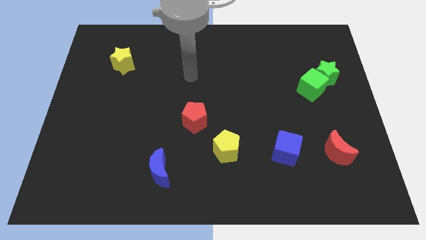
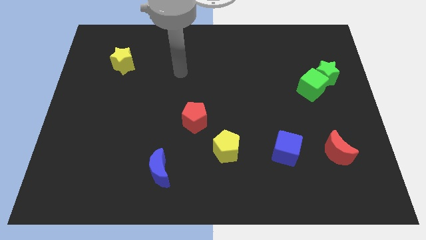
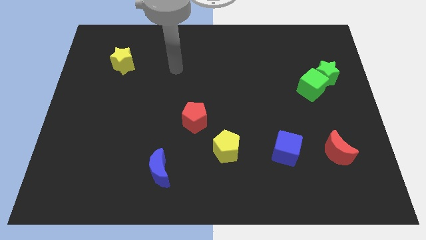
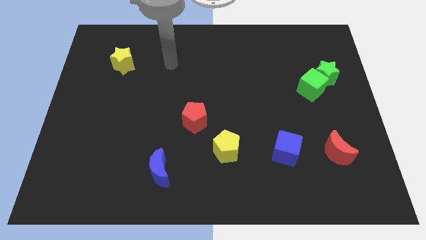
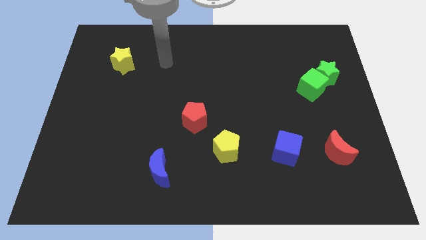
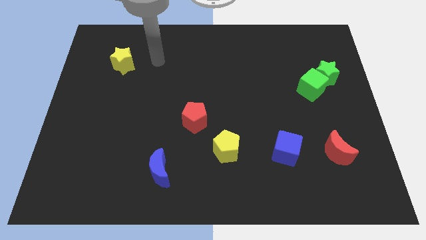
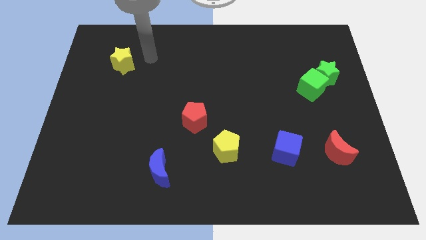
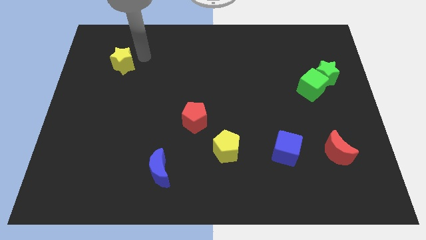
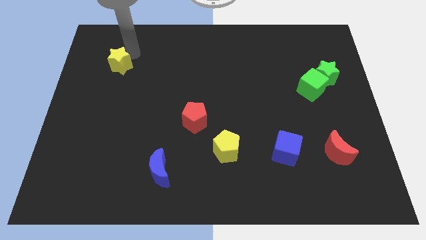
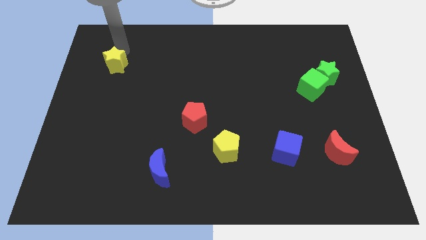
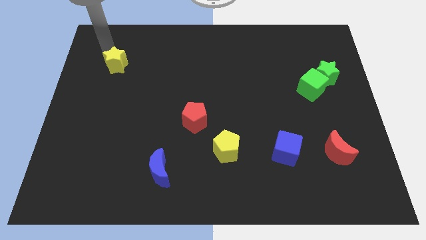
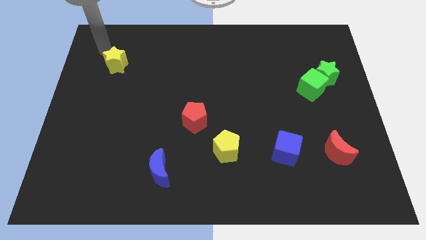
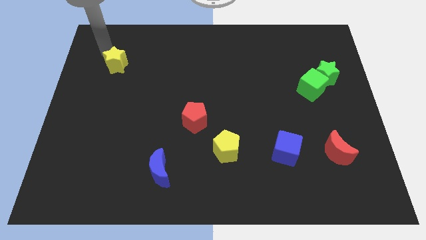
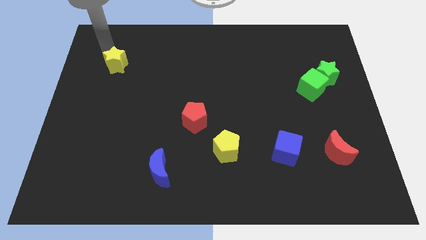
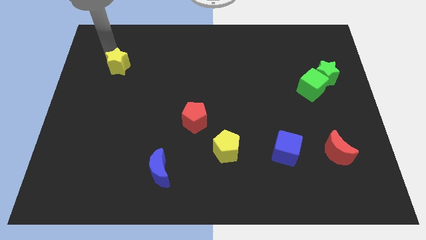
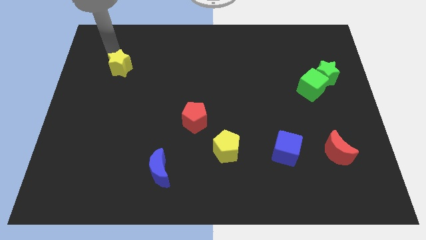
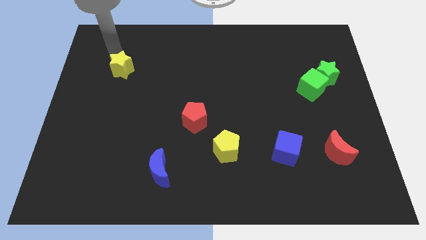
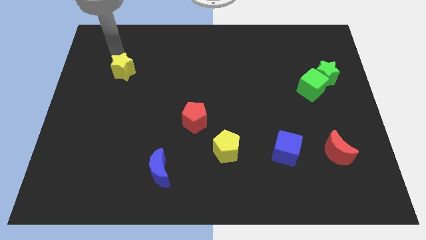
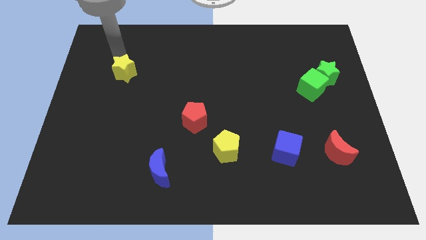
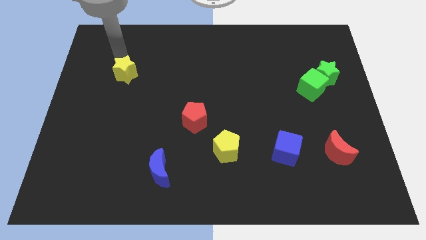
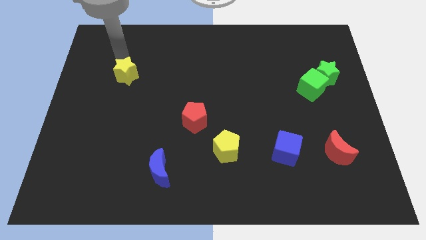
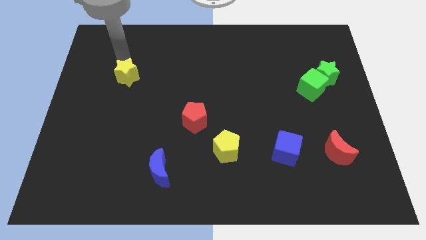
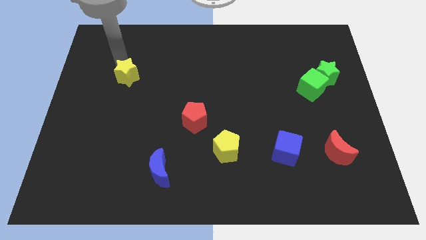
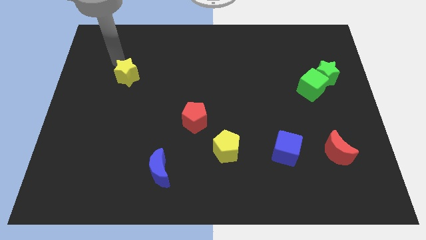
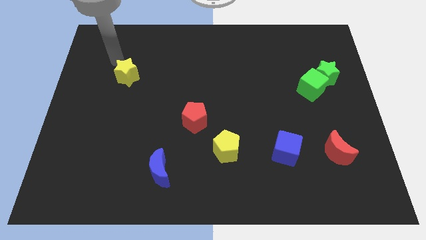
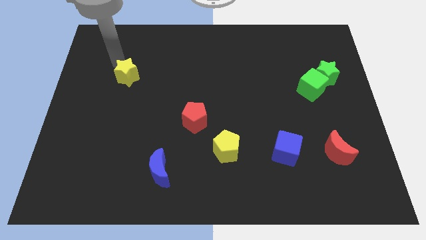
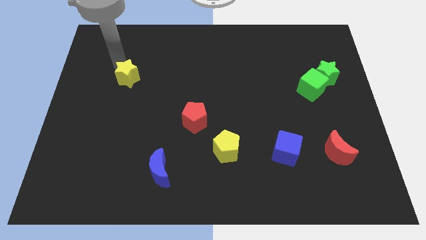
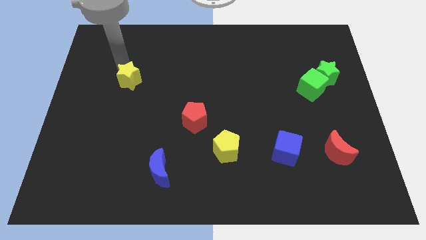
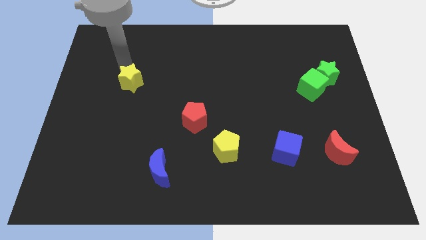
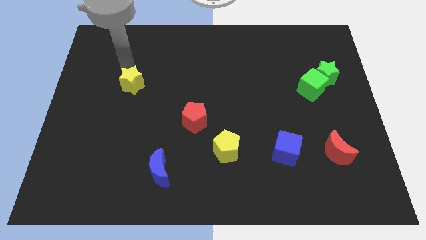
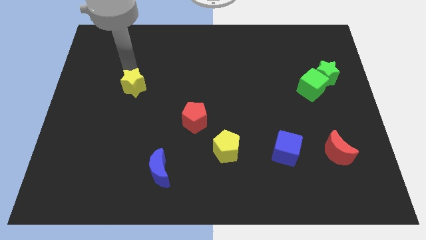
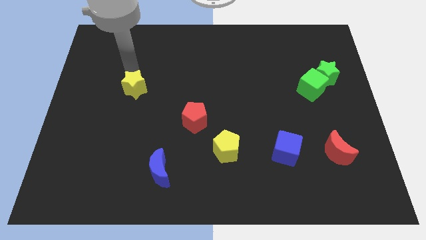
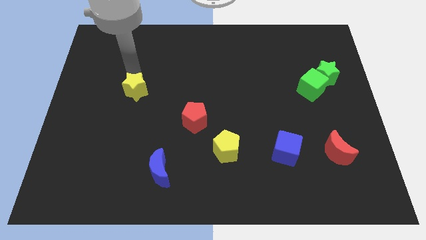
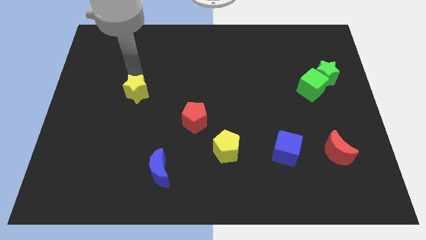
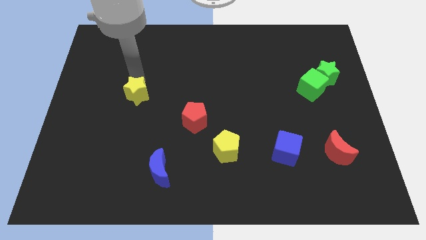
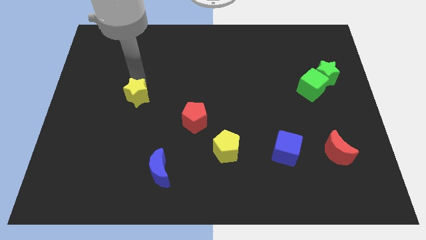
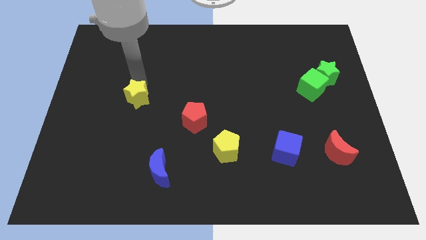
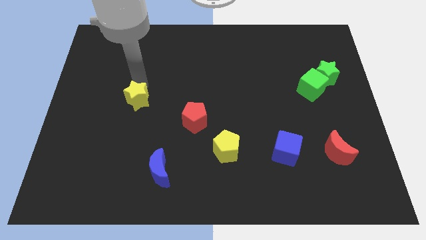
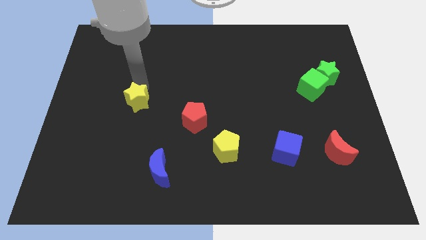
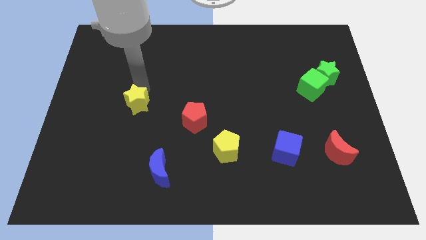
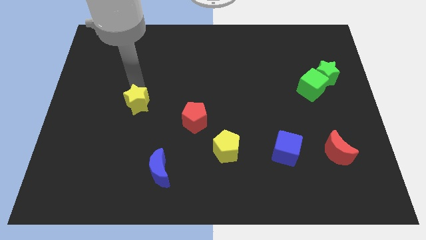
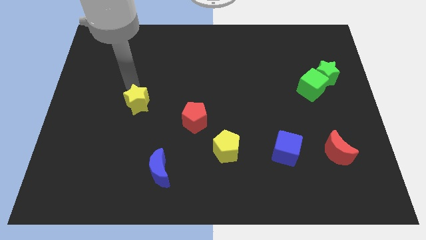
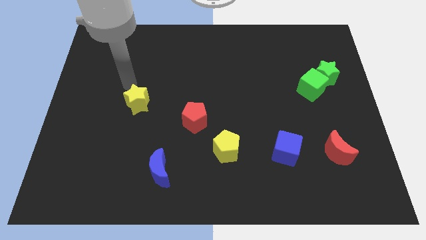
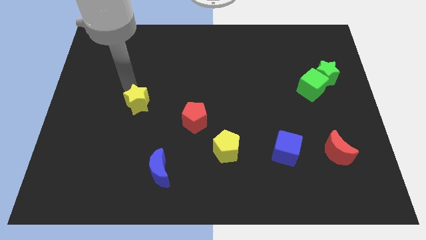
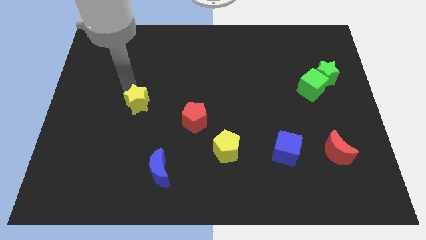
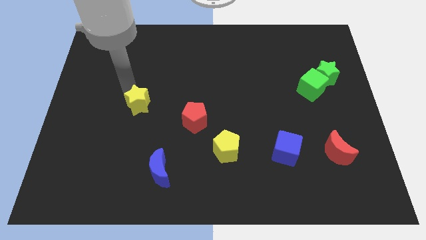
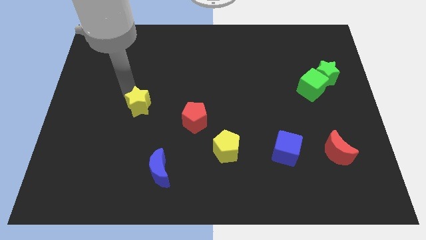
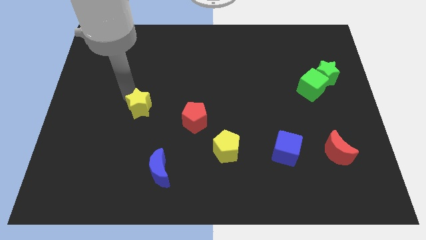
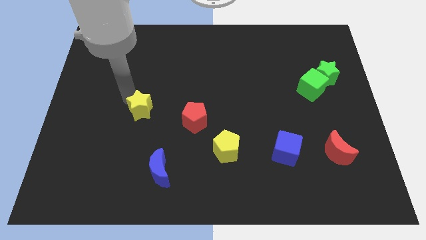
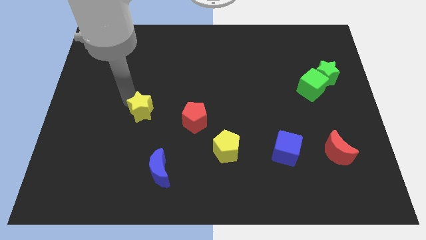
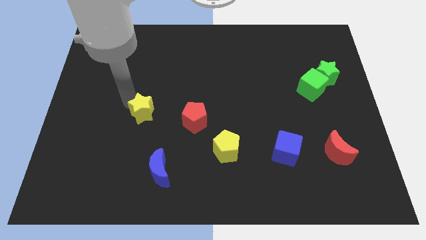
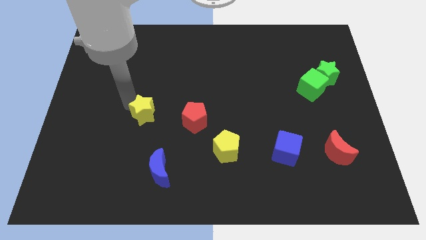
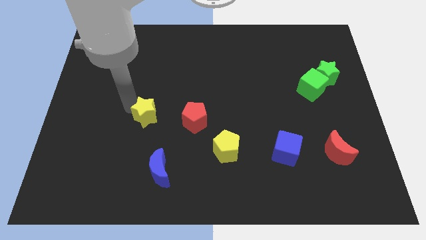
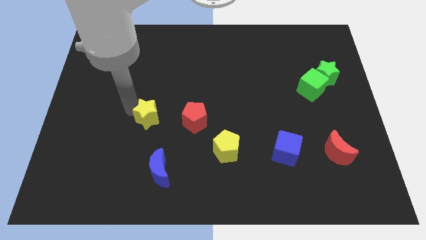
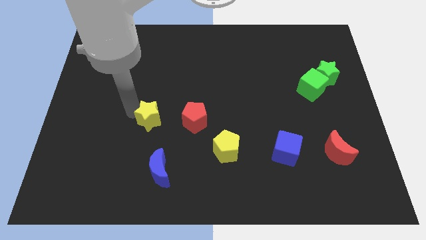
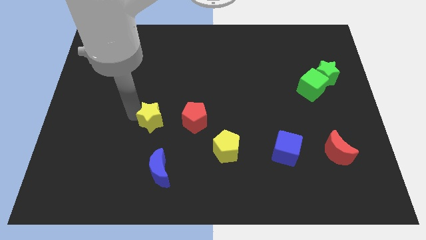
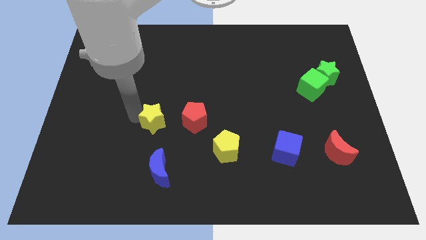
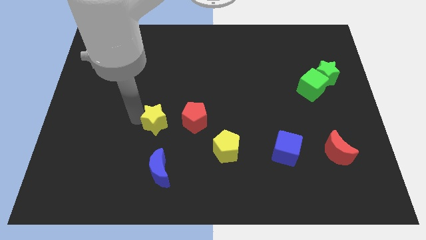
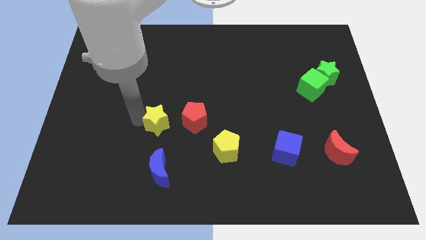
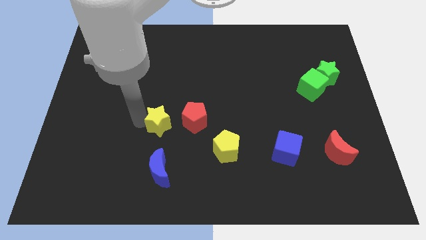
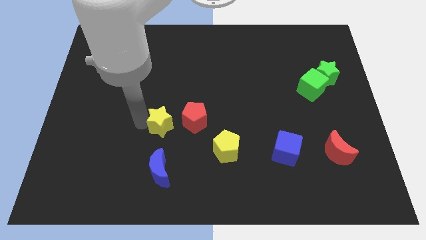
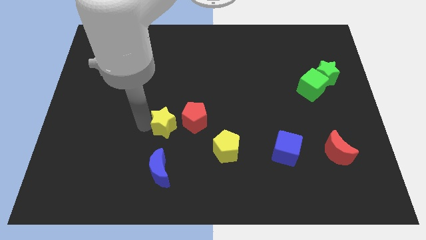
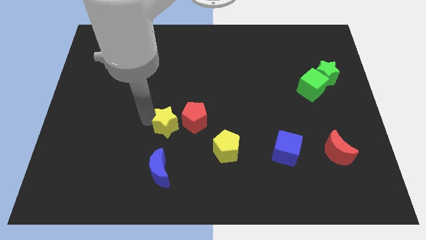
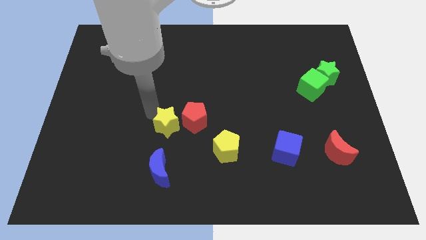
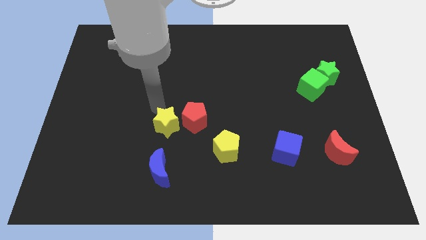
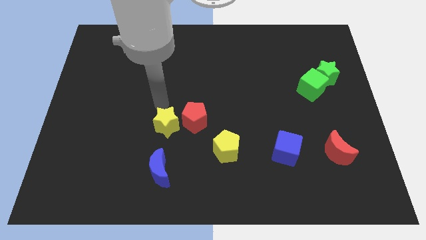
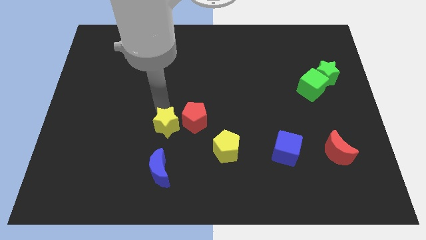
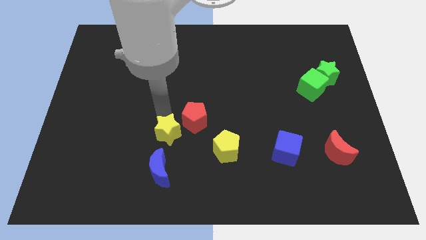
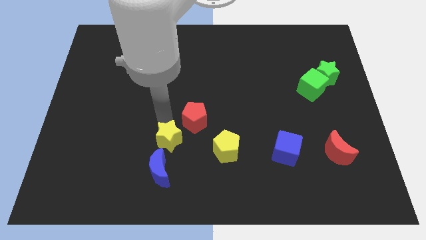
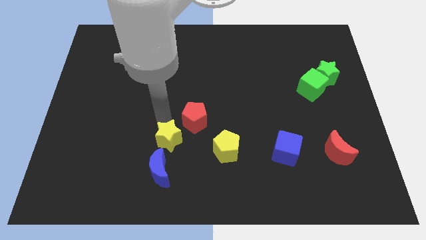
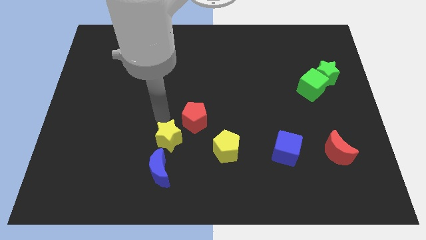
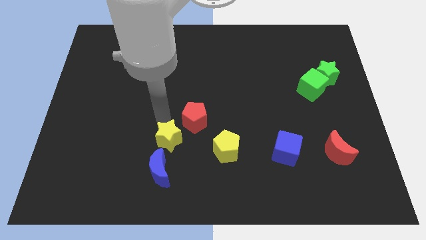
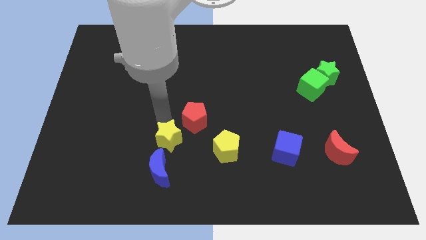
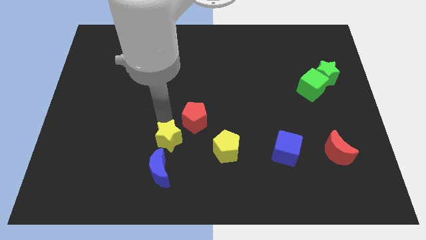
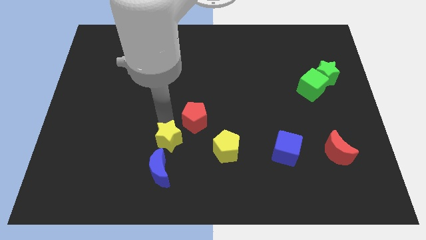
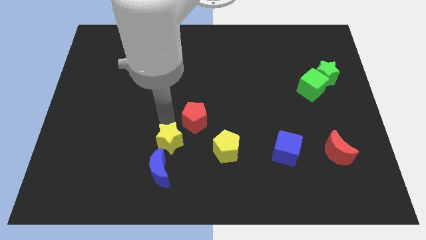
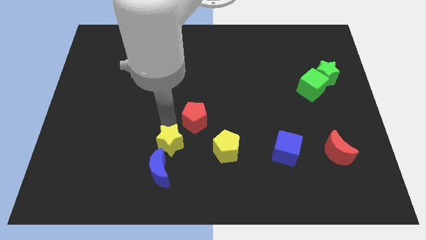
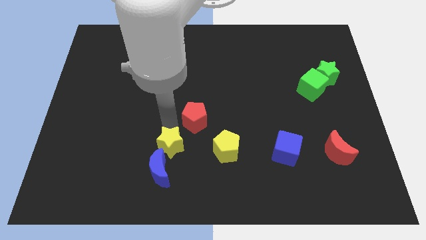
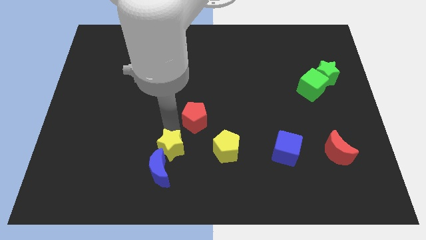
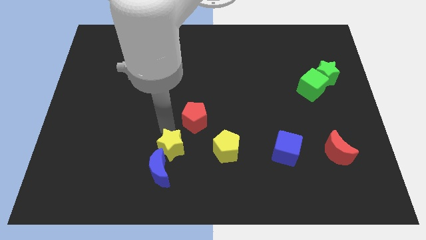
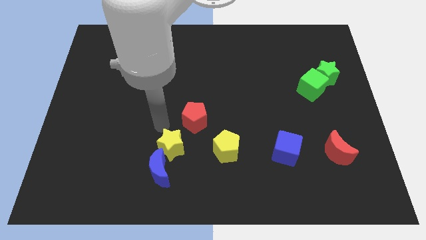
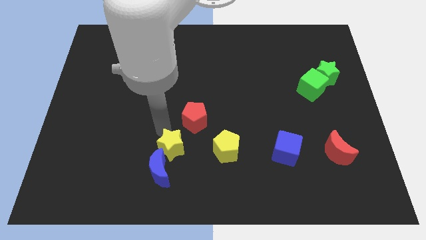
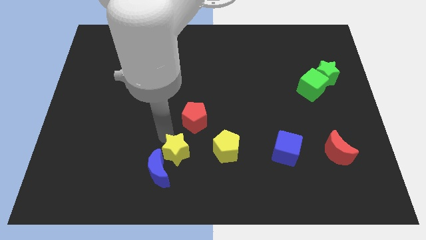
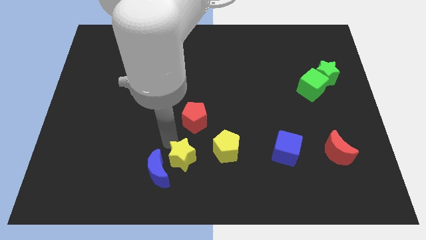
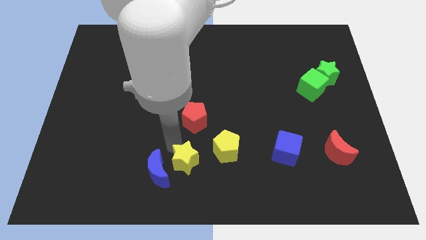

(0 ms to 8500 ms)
move the yellow star to the bottom side
